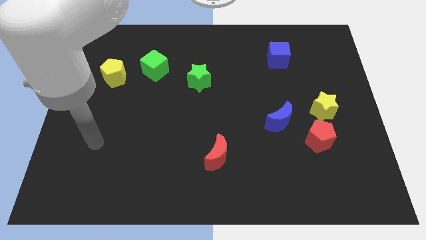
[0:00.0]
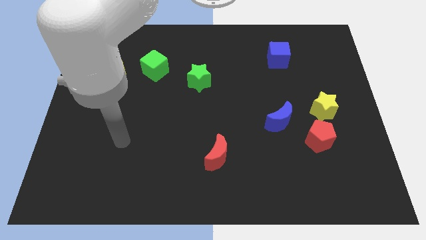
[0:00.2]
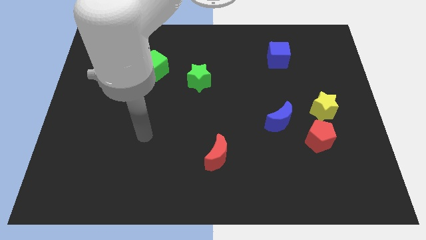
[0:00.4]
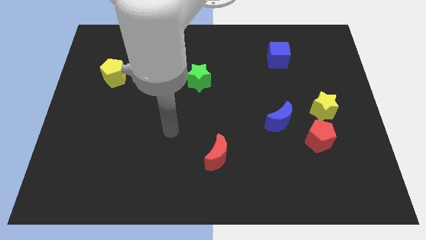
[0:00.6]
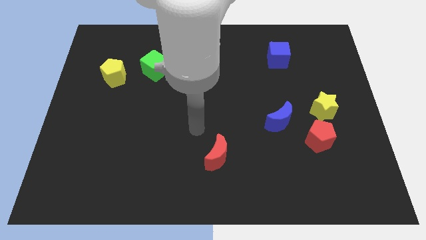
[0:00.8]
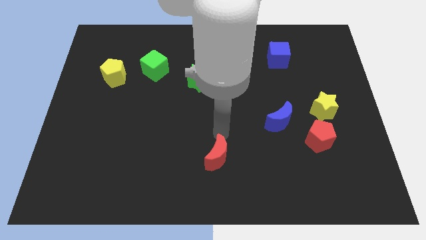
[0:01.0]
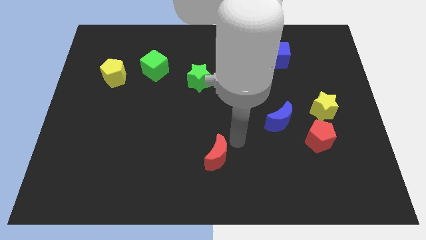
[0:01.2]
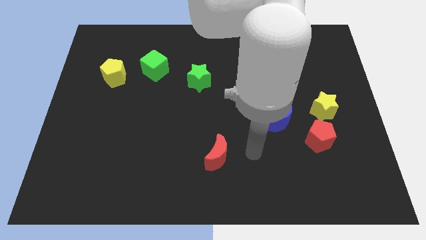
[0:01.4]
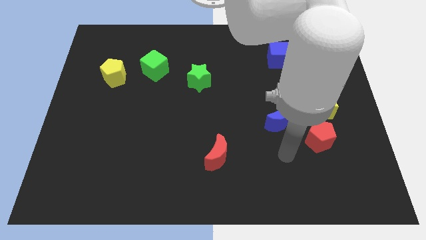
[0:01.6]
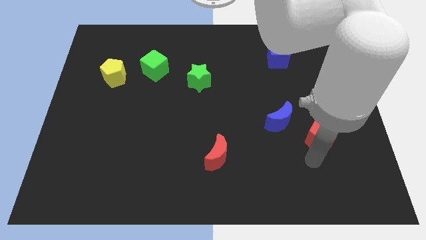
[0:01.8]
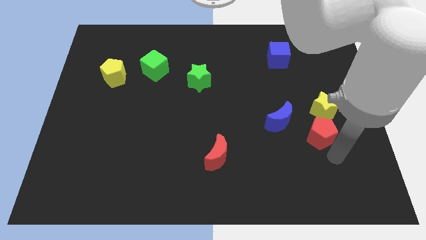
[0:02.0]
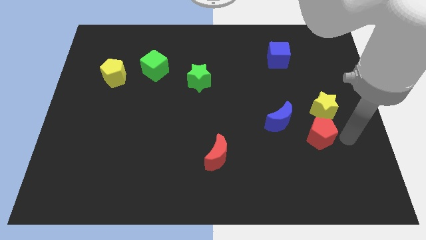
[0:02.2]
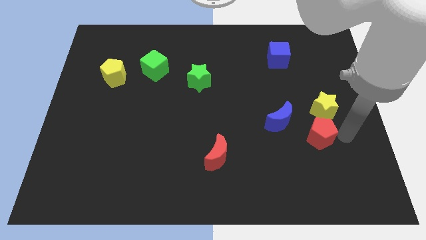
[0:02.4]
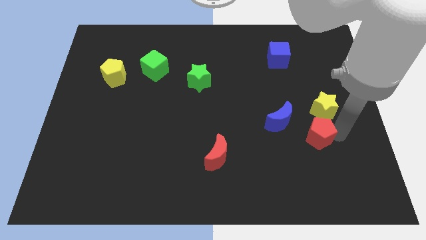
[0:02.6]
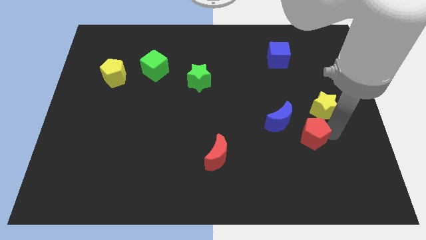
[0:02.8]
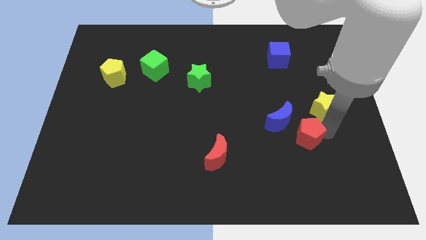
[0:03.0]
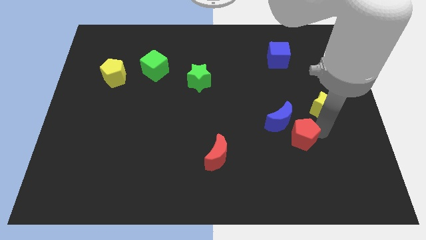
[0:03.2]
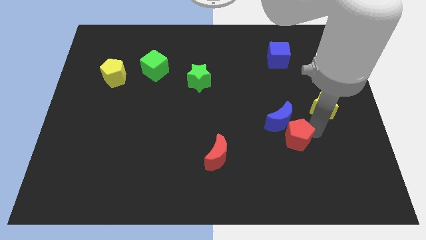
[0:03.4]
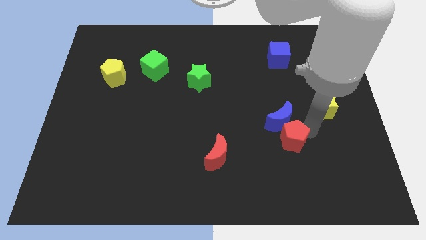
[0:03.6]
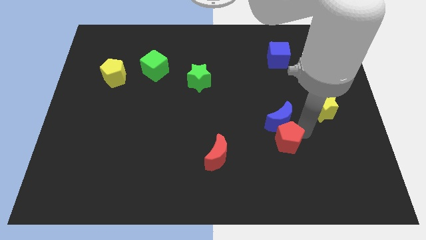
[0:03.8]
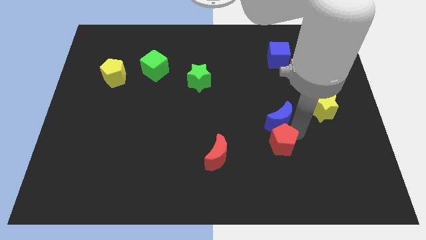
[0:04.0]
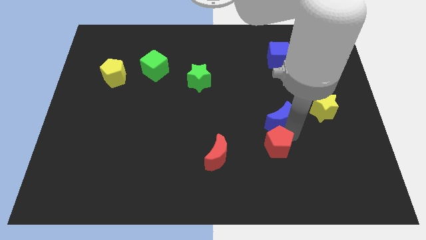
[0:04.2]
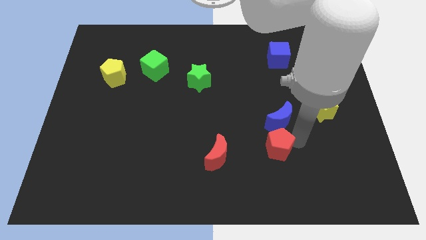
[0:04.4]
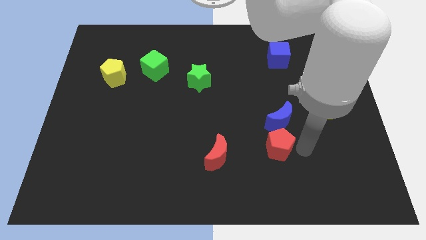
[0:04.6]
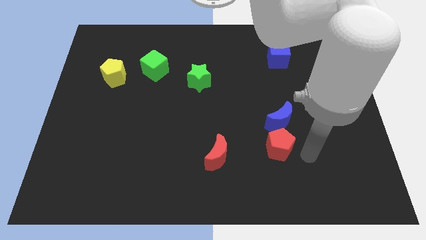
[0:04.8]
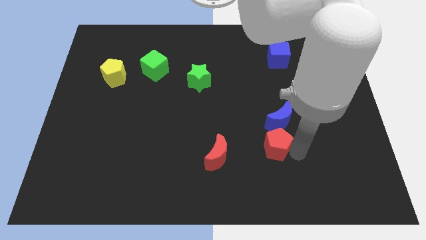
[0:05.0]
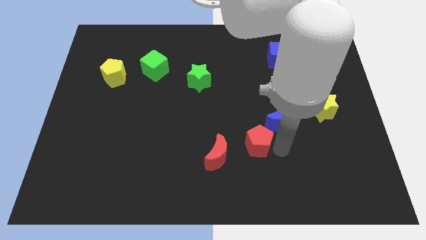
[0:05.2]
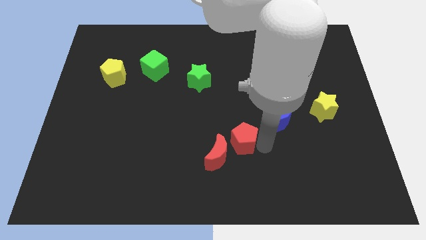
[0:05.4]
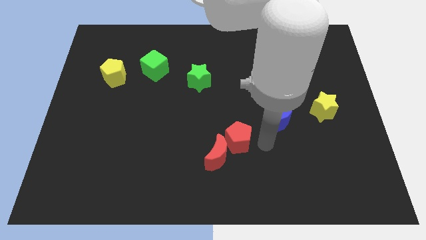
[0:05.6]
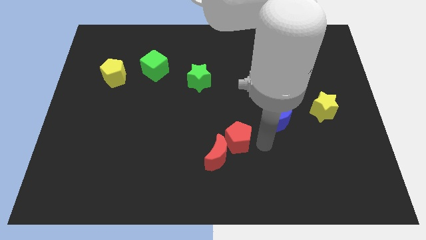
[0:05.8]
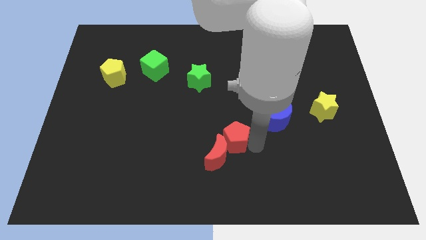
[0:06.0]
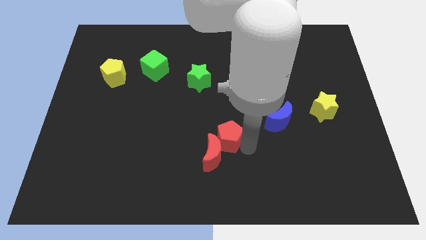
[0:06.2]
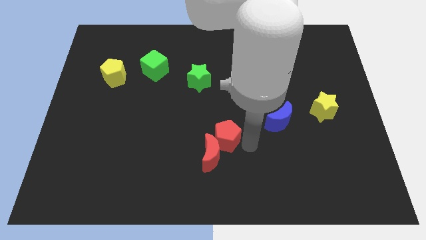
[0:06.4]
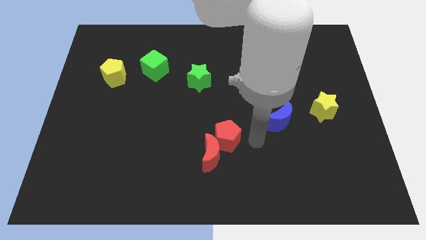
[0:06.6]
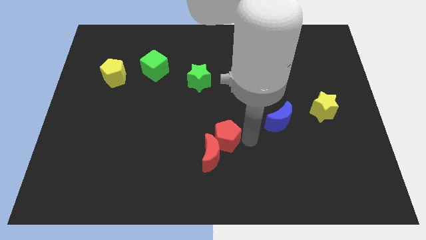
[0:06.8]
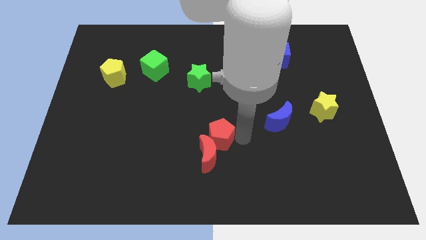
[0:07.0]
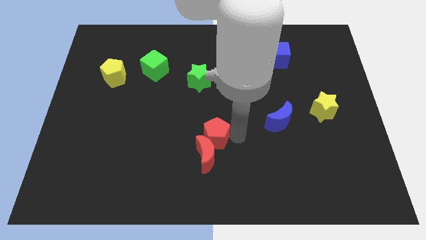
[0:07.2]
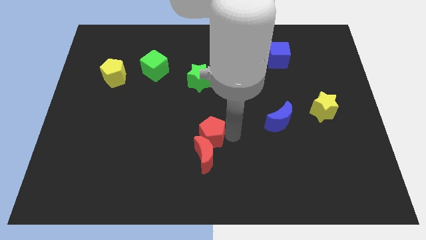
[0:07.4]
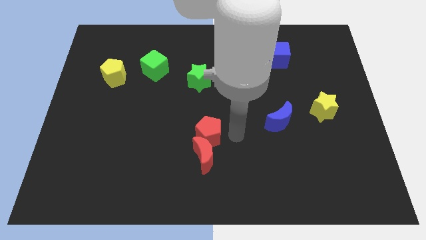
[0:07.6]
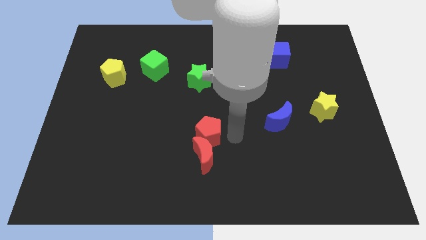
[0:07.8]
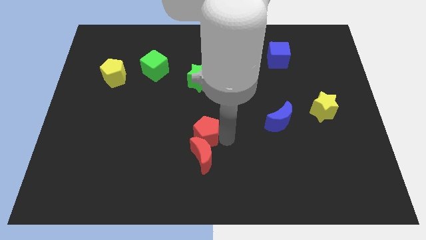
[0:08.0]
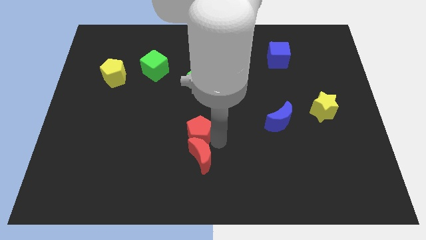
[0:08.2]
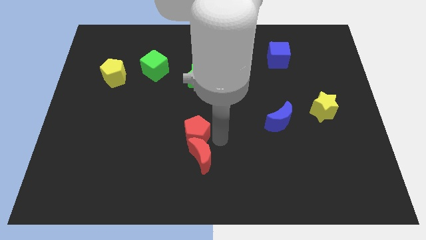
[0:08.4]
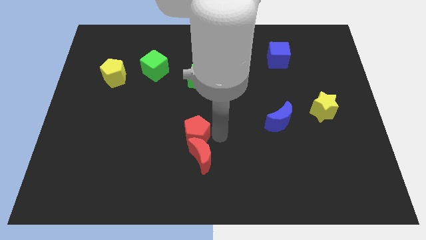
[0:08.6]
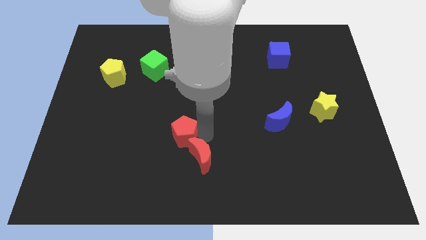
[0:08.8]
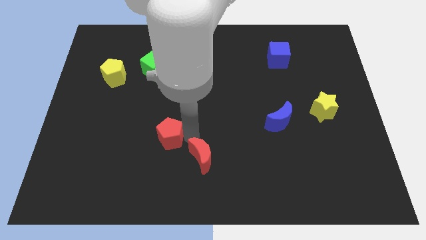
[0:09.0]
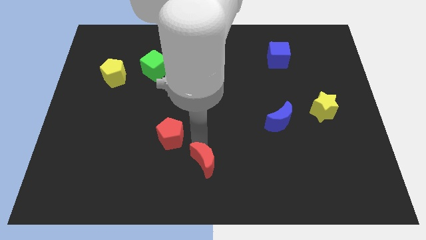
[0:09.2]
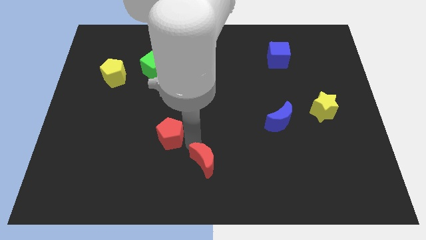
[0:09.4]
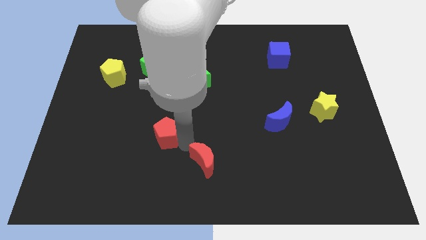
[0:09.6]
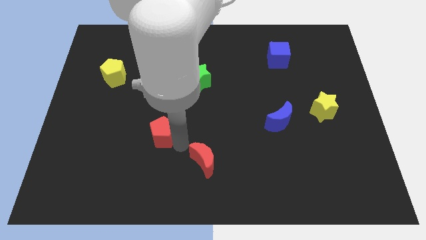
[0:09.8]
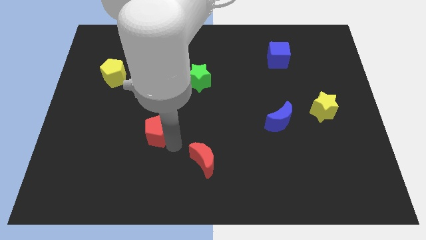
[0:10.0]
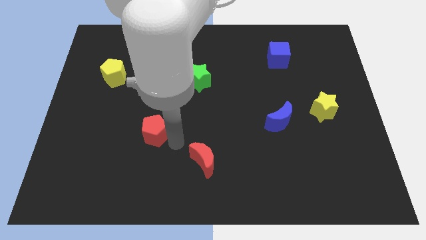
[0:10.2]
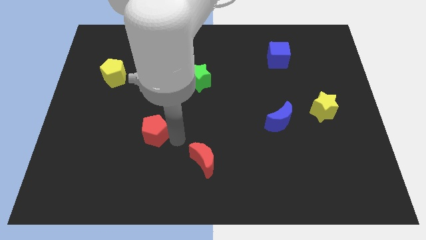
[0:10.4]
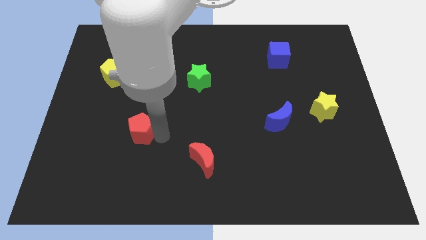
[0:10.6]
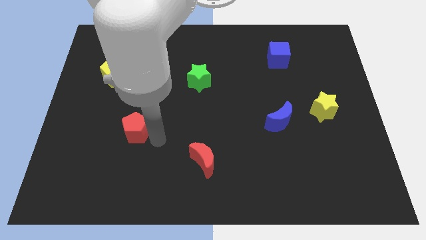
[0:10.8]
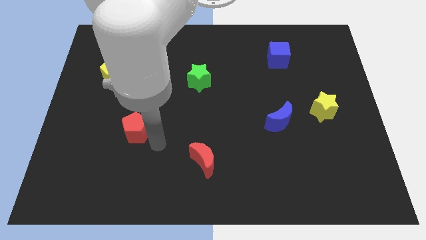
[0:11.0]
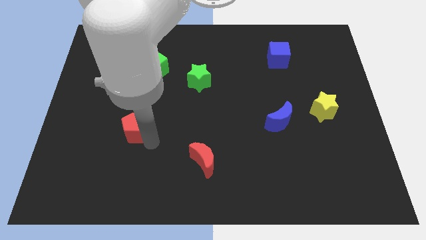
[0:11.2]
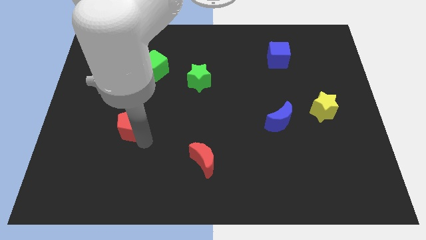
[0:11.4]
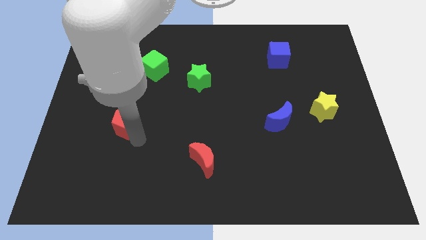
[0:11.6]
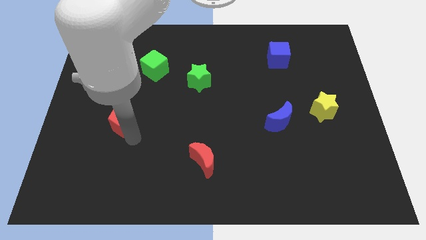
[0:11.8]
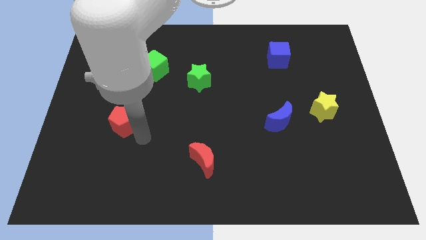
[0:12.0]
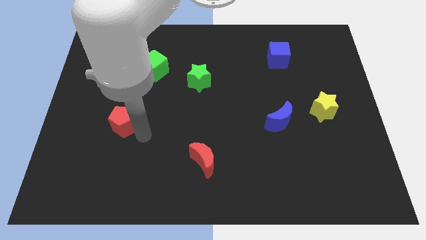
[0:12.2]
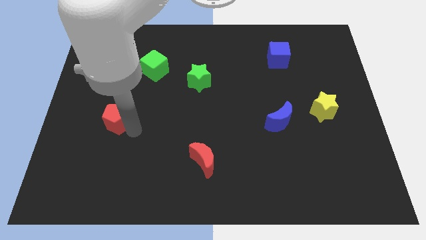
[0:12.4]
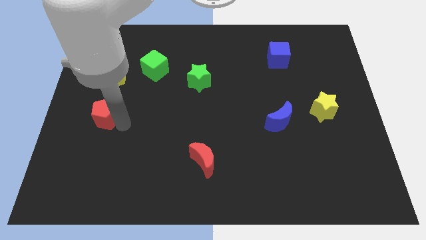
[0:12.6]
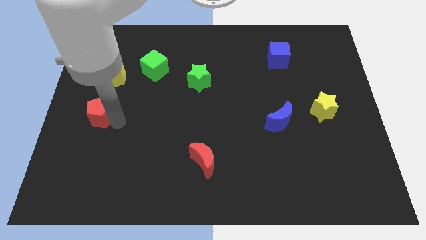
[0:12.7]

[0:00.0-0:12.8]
move the red pentagon to the left side
